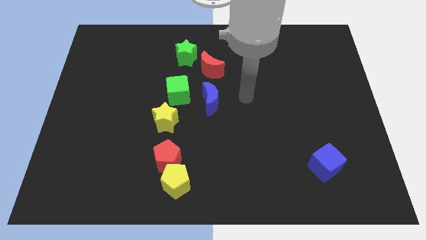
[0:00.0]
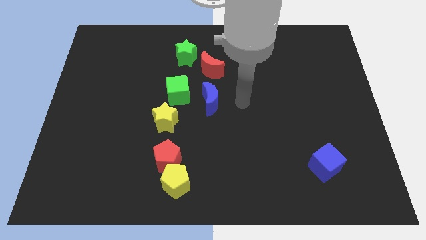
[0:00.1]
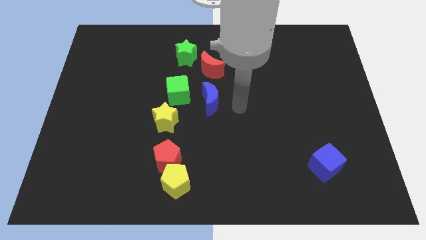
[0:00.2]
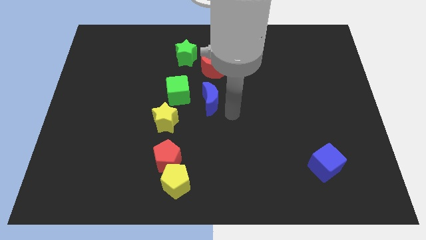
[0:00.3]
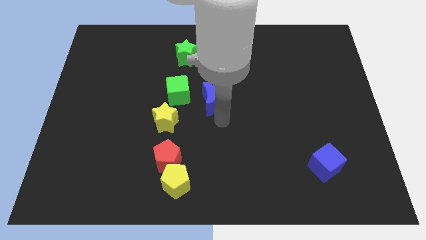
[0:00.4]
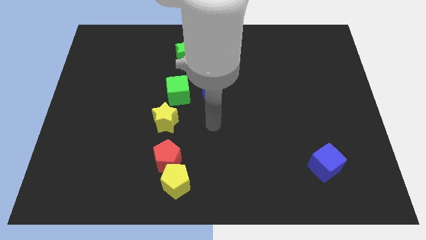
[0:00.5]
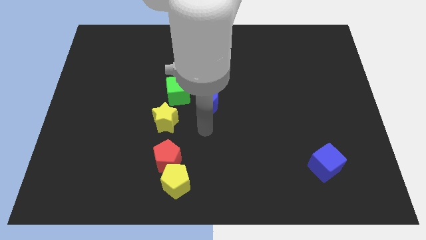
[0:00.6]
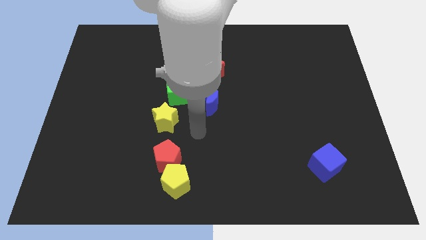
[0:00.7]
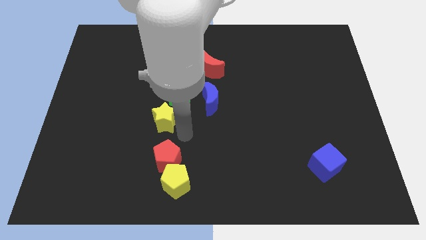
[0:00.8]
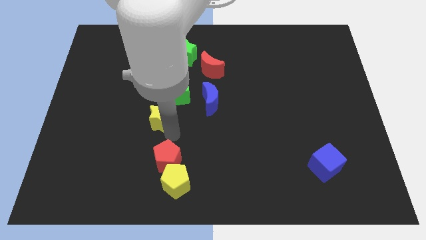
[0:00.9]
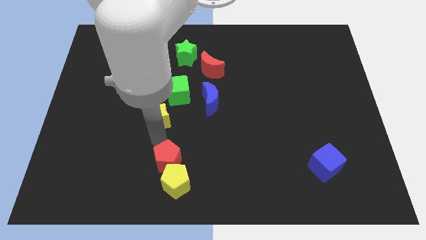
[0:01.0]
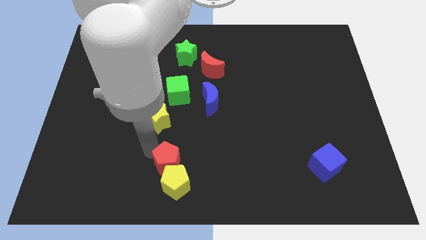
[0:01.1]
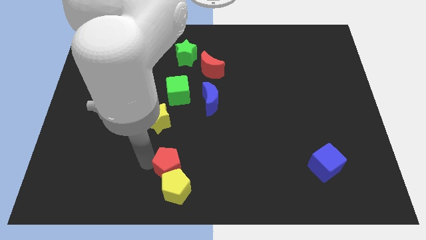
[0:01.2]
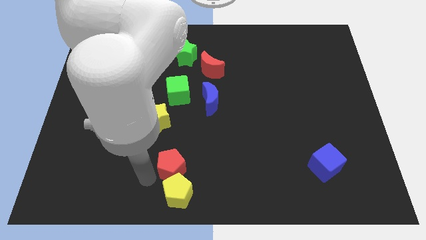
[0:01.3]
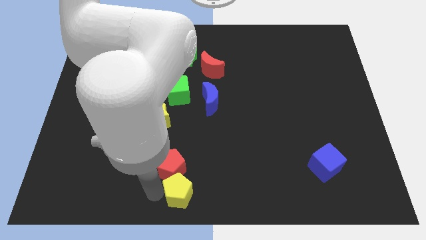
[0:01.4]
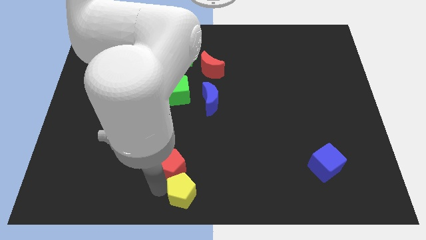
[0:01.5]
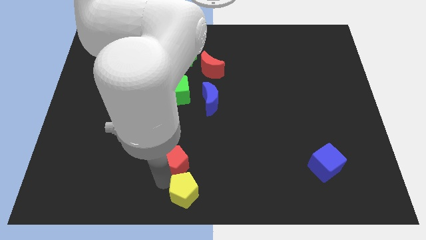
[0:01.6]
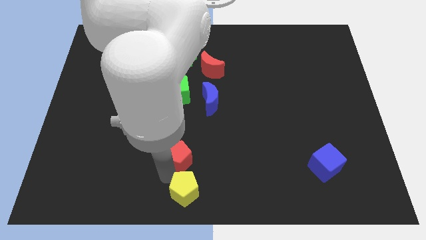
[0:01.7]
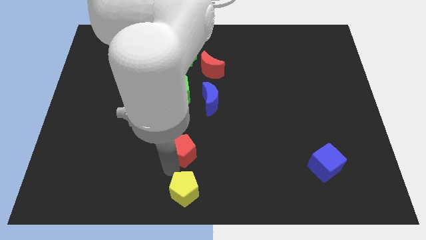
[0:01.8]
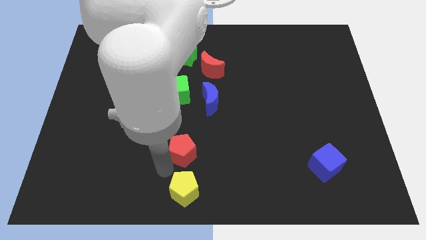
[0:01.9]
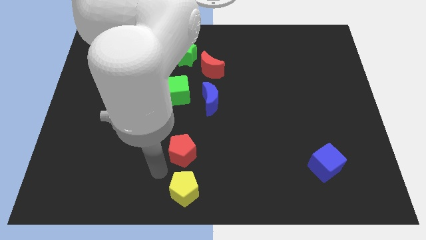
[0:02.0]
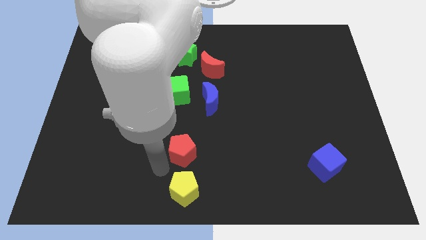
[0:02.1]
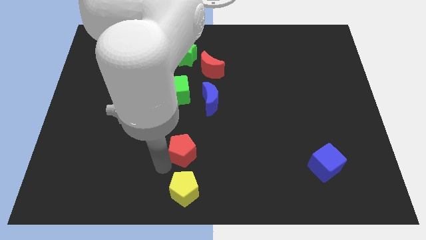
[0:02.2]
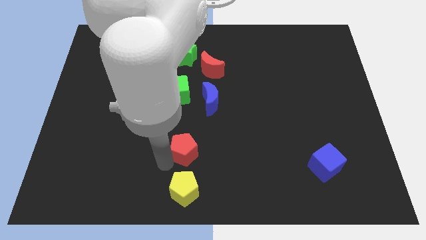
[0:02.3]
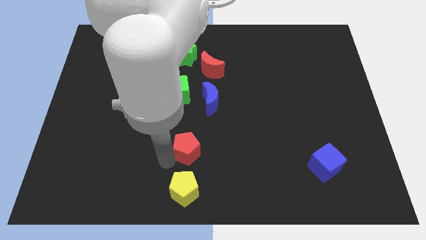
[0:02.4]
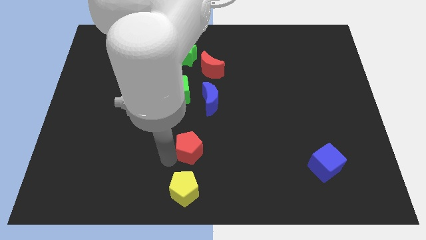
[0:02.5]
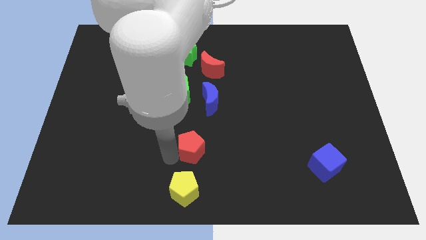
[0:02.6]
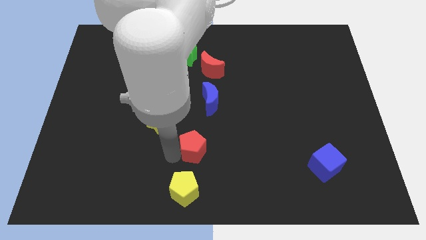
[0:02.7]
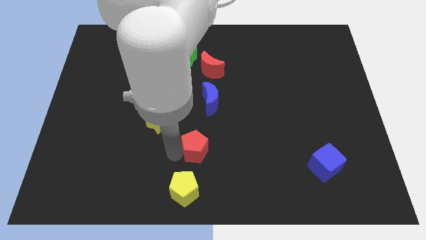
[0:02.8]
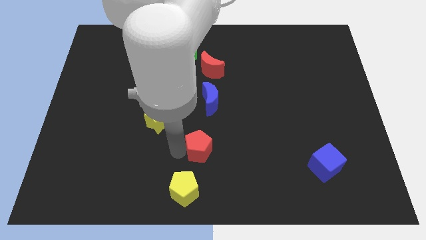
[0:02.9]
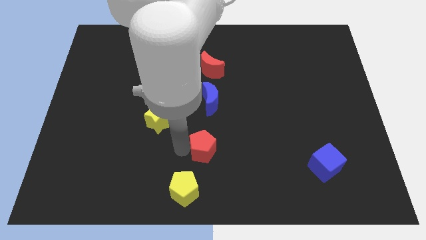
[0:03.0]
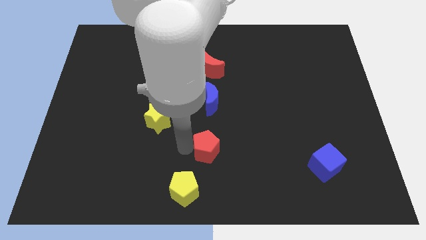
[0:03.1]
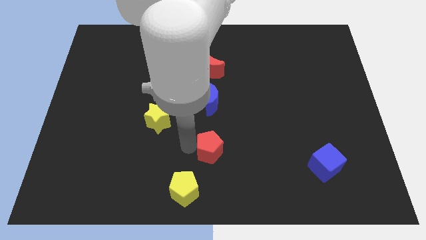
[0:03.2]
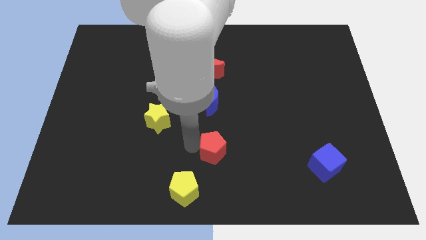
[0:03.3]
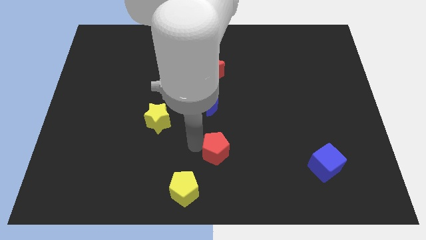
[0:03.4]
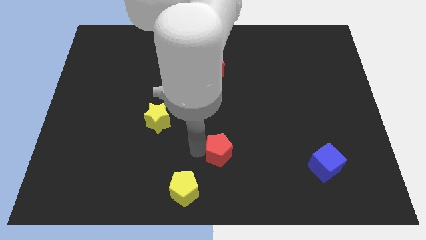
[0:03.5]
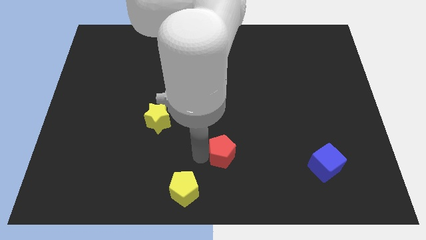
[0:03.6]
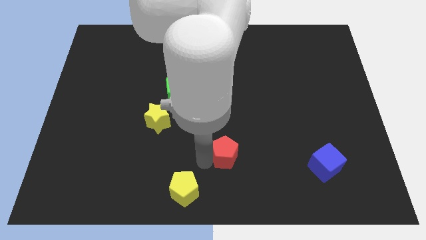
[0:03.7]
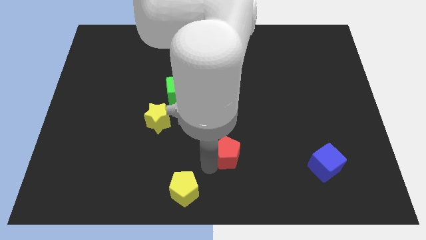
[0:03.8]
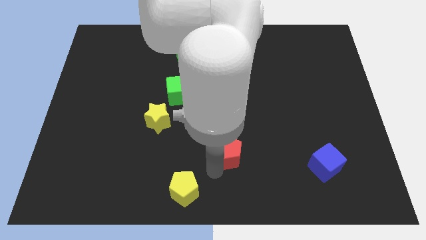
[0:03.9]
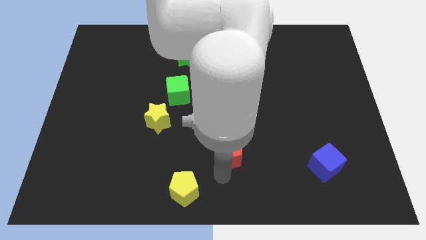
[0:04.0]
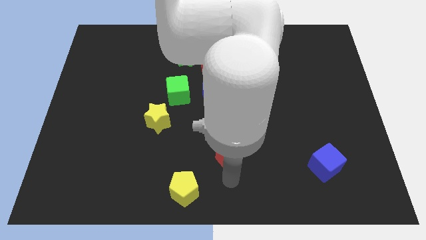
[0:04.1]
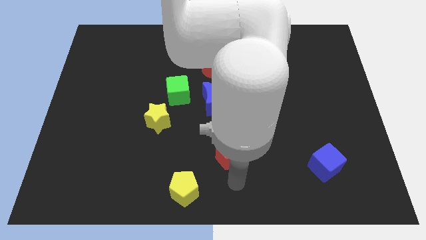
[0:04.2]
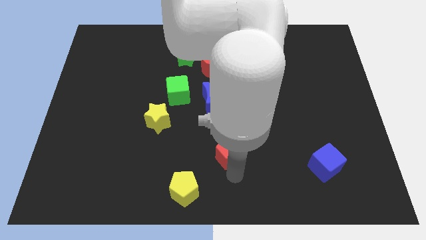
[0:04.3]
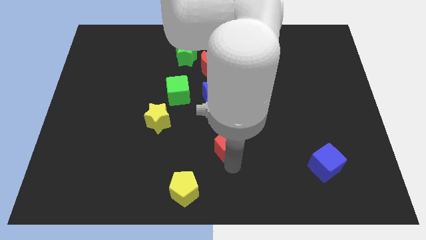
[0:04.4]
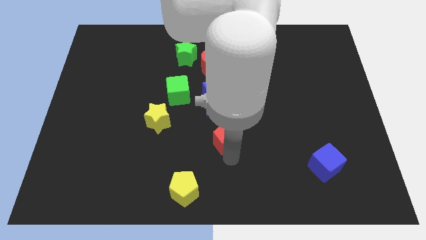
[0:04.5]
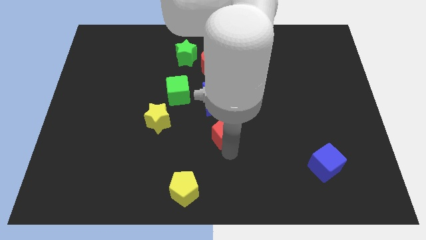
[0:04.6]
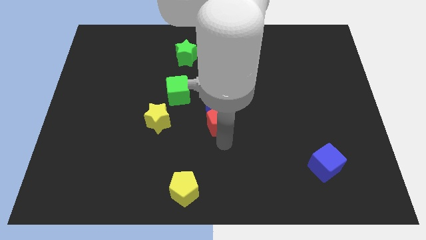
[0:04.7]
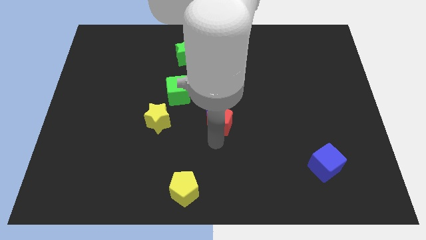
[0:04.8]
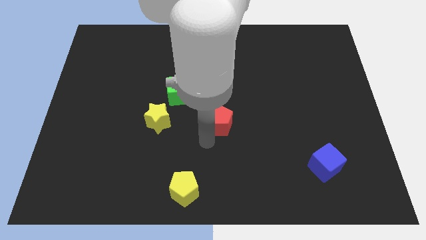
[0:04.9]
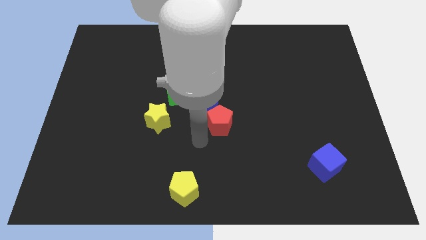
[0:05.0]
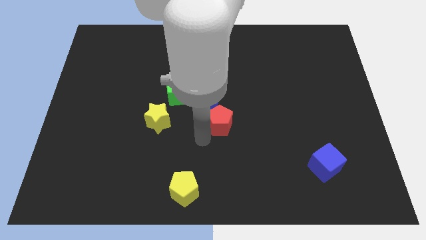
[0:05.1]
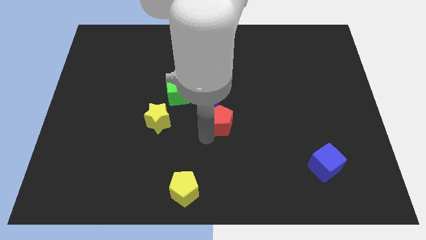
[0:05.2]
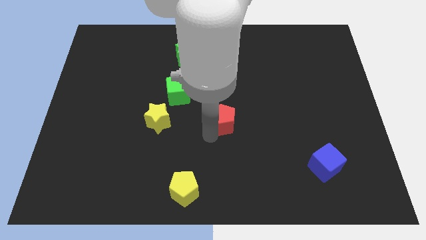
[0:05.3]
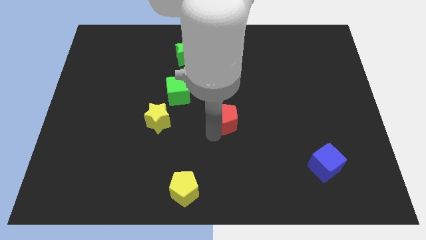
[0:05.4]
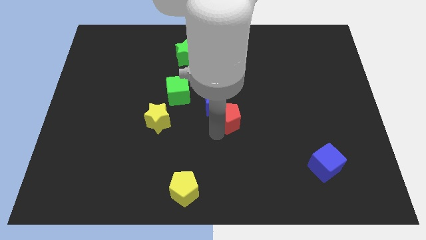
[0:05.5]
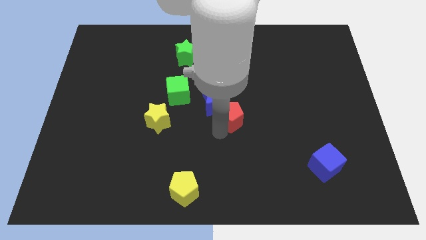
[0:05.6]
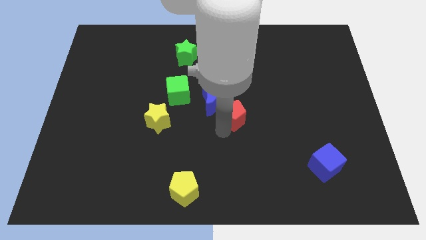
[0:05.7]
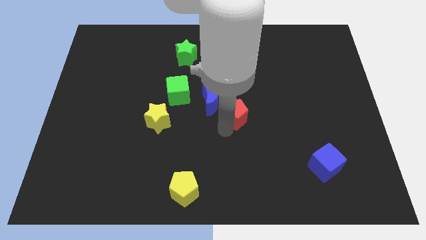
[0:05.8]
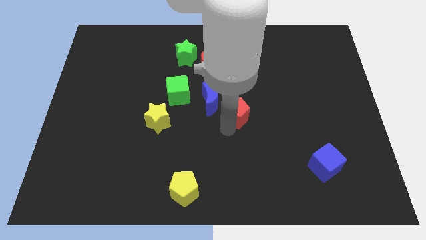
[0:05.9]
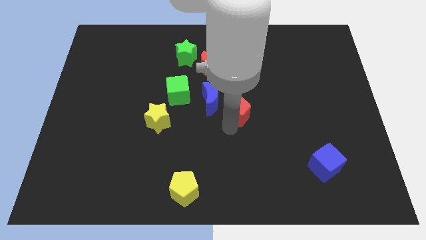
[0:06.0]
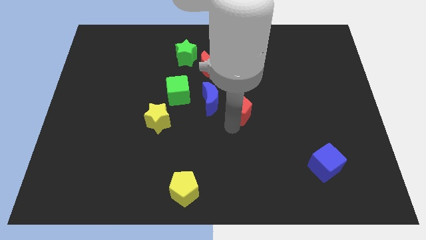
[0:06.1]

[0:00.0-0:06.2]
push the red pentagon diagonally upwards and to the right

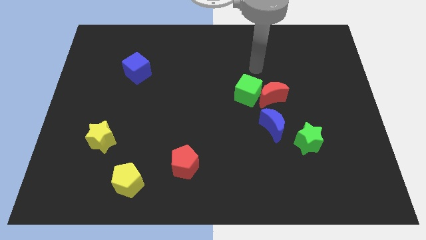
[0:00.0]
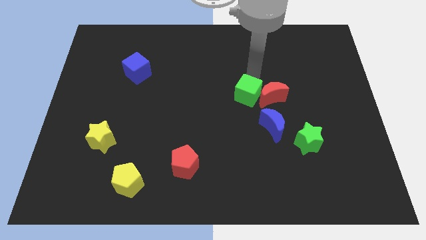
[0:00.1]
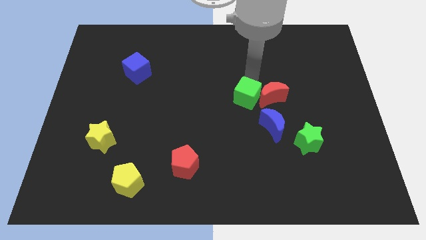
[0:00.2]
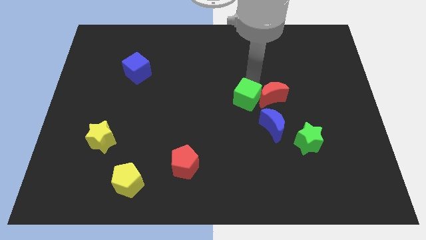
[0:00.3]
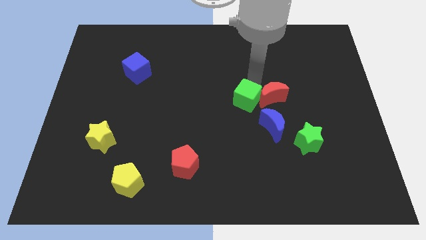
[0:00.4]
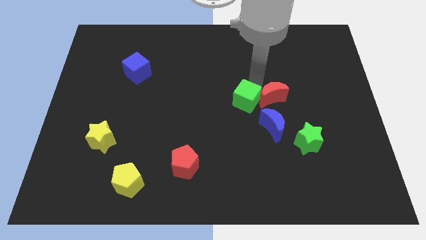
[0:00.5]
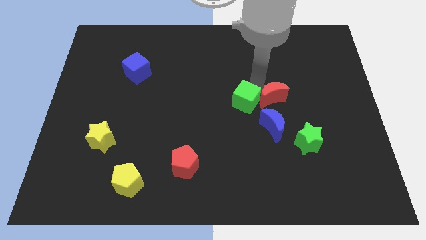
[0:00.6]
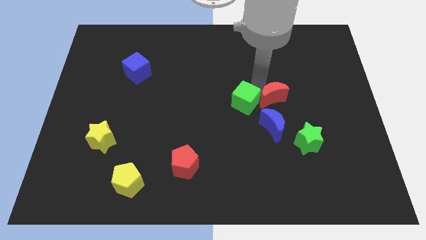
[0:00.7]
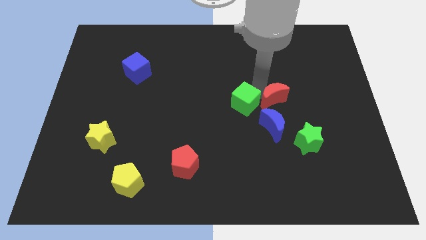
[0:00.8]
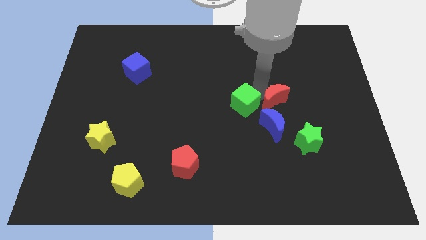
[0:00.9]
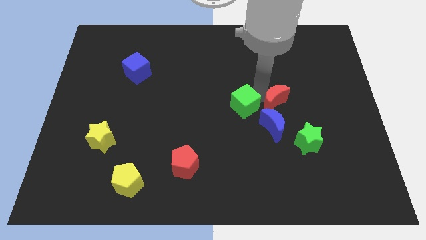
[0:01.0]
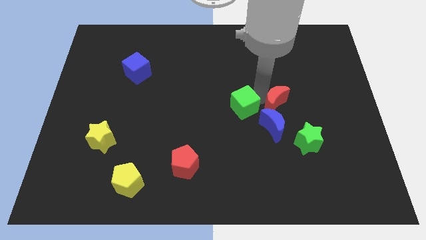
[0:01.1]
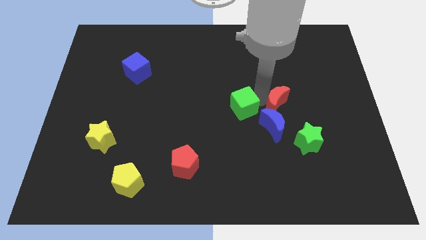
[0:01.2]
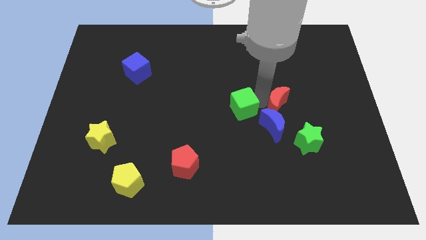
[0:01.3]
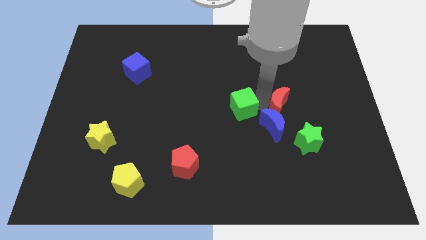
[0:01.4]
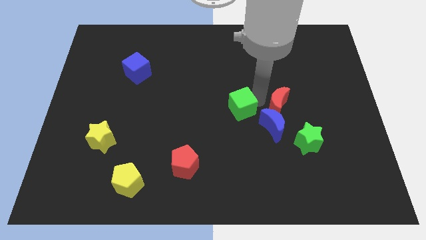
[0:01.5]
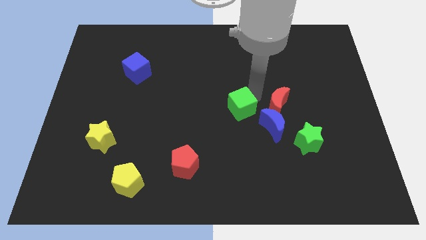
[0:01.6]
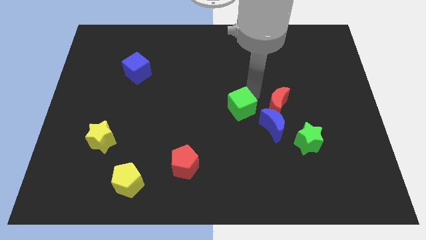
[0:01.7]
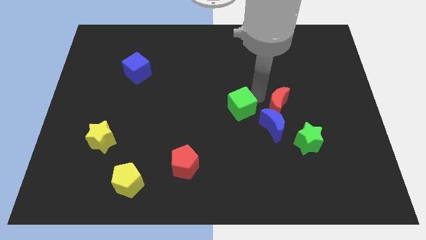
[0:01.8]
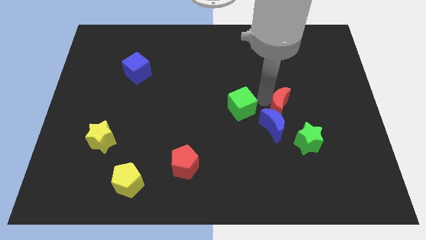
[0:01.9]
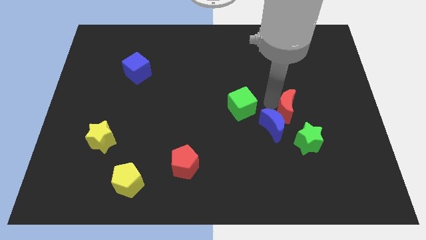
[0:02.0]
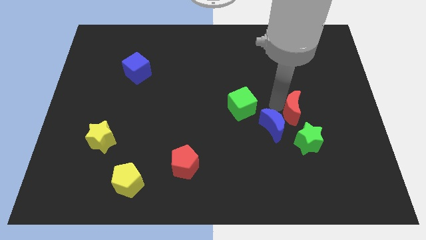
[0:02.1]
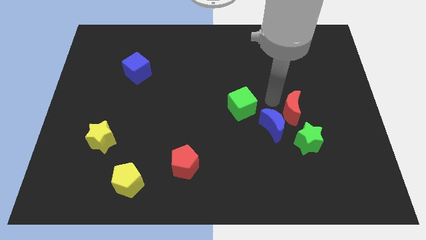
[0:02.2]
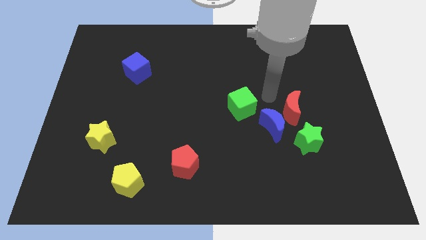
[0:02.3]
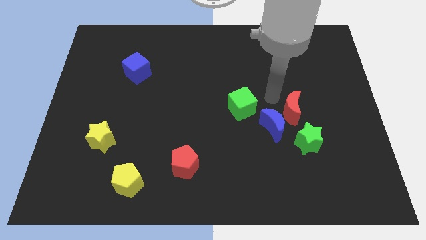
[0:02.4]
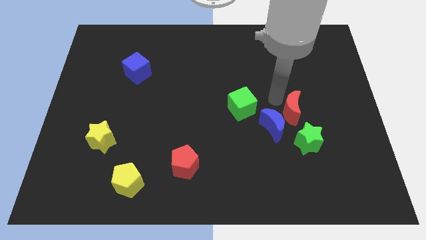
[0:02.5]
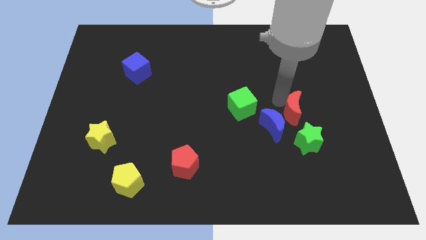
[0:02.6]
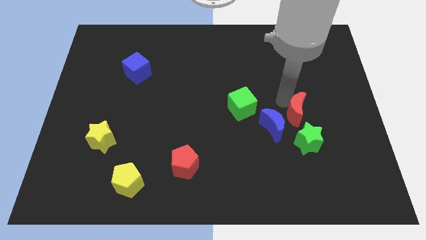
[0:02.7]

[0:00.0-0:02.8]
push the red moon diagonally down and right a bit
